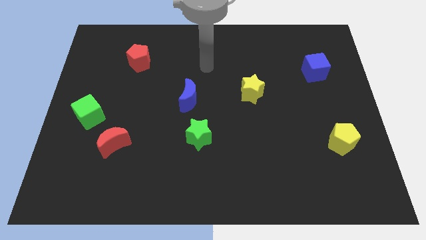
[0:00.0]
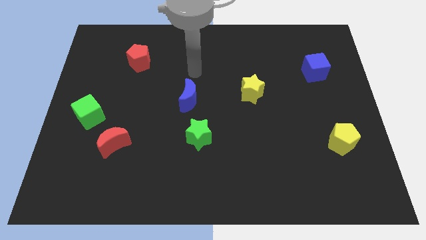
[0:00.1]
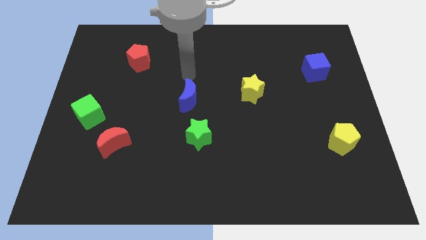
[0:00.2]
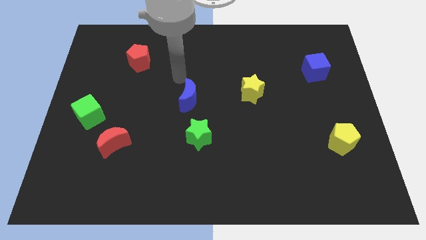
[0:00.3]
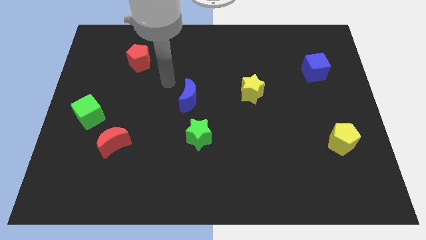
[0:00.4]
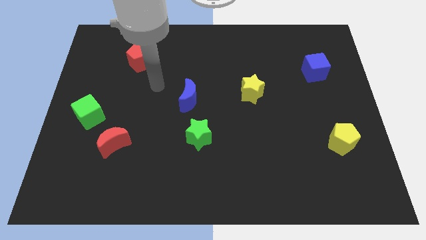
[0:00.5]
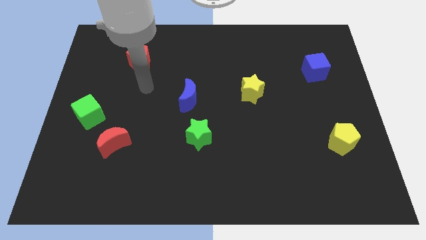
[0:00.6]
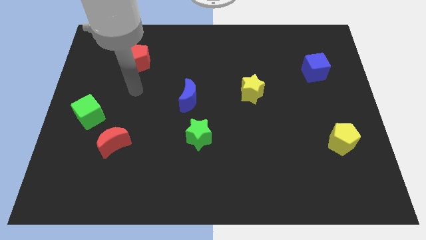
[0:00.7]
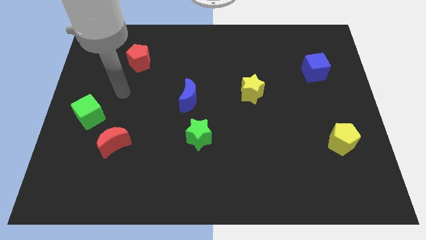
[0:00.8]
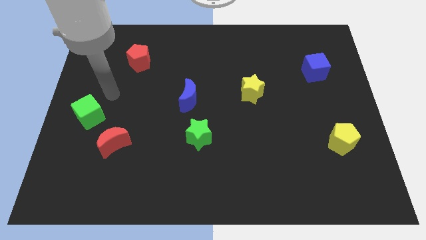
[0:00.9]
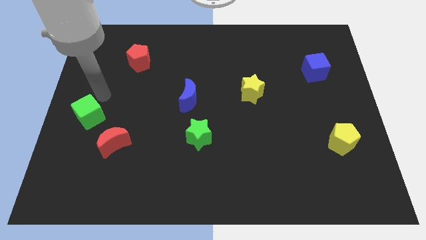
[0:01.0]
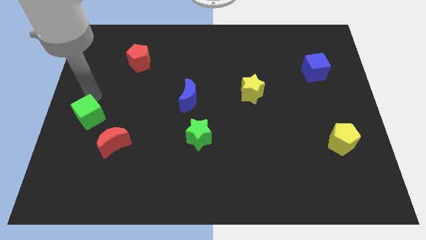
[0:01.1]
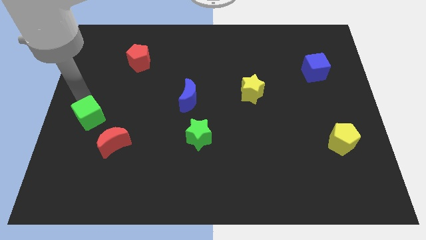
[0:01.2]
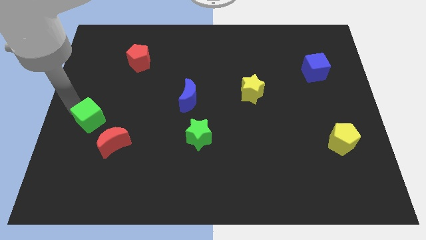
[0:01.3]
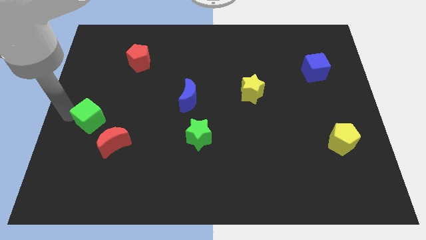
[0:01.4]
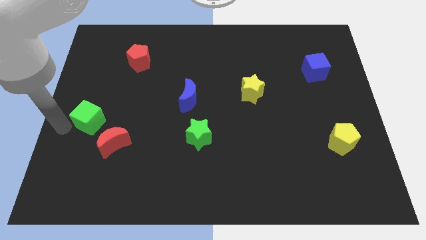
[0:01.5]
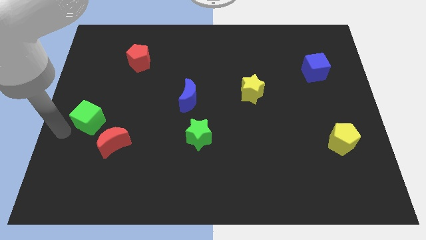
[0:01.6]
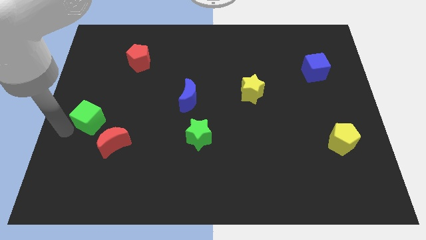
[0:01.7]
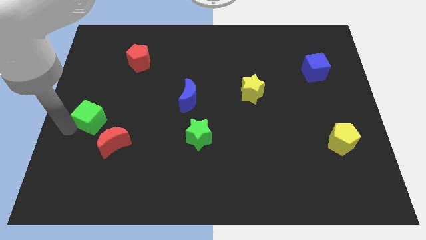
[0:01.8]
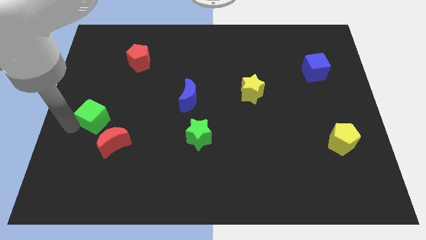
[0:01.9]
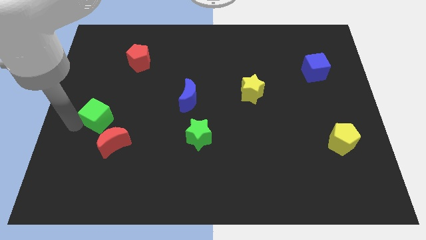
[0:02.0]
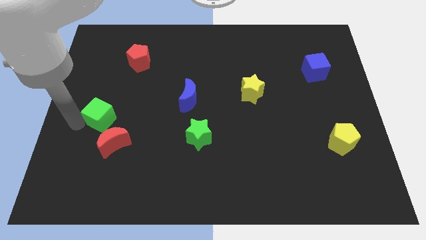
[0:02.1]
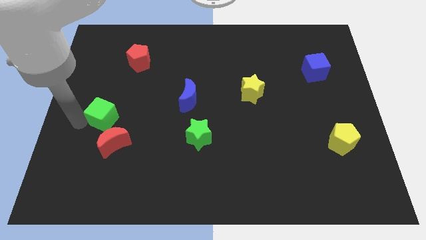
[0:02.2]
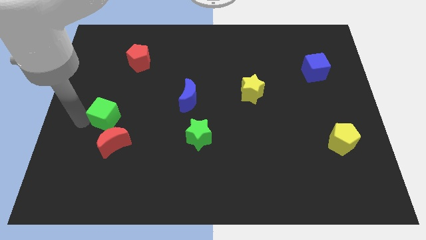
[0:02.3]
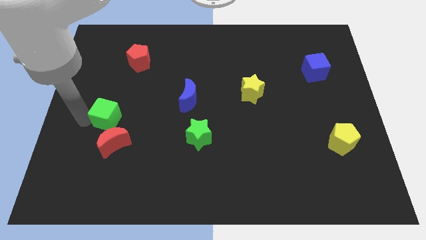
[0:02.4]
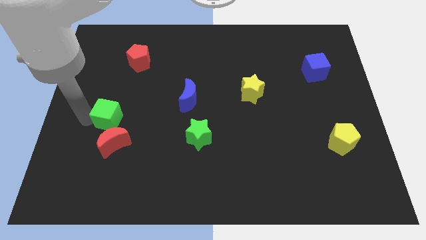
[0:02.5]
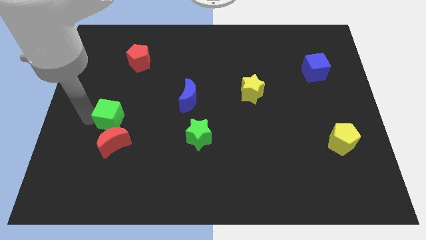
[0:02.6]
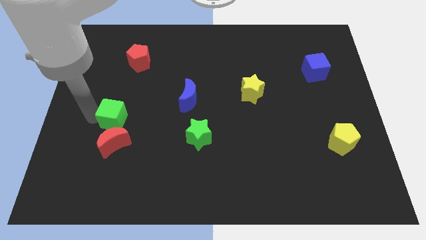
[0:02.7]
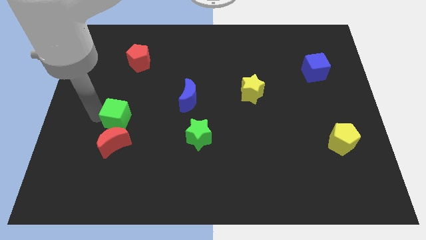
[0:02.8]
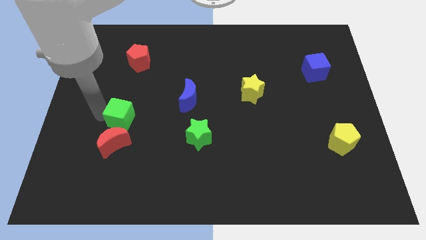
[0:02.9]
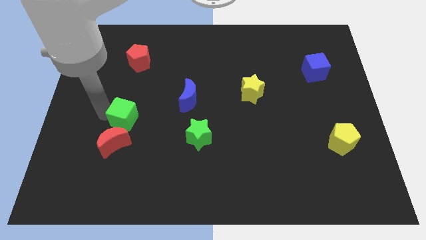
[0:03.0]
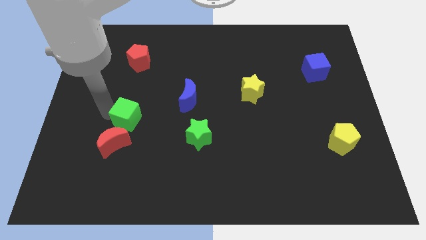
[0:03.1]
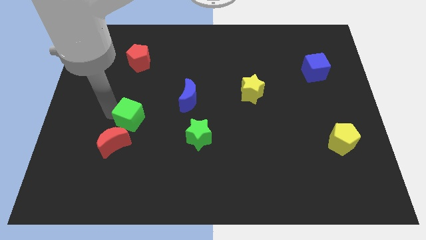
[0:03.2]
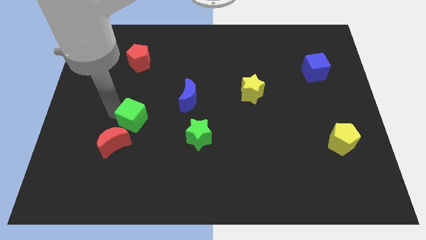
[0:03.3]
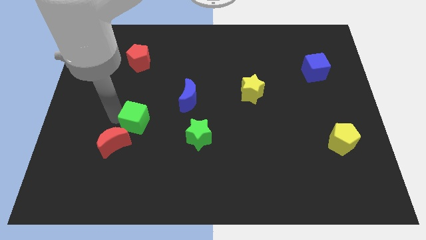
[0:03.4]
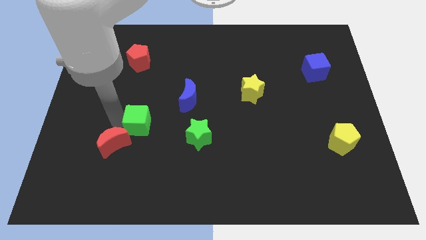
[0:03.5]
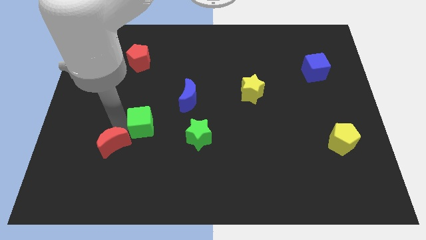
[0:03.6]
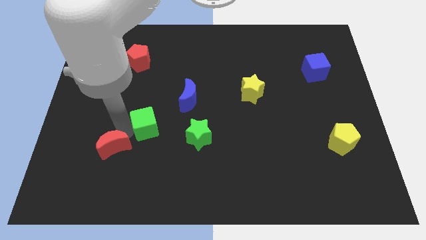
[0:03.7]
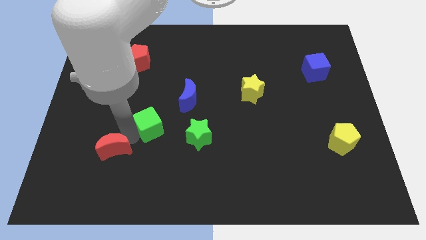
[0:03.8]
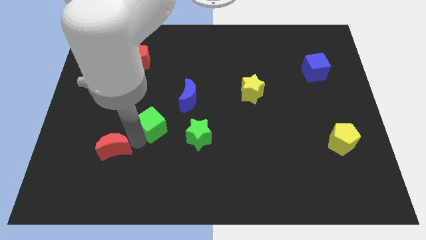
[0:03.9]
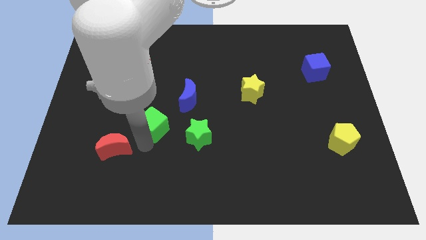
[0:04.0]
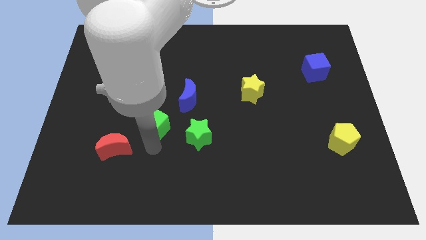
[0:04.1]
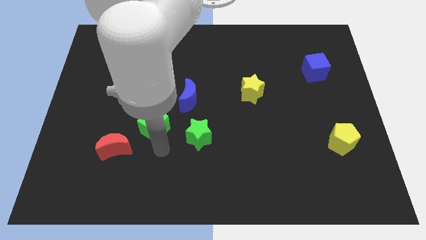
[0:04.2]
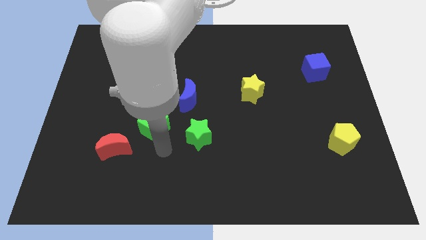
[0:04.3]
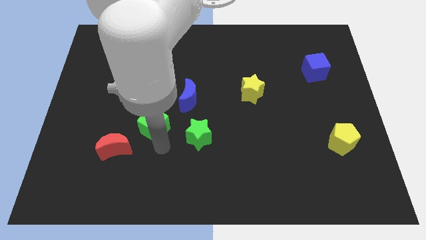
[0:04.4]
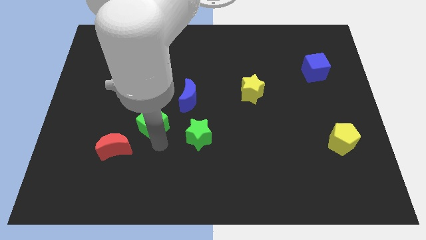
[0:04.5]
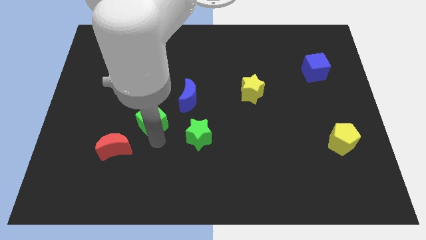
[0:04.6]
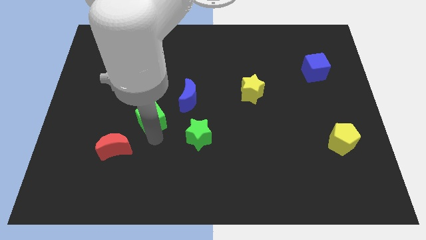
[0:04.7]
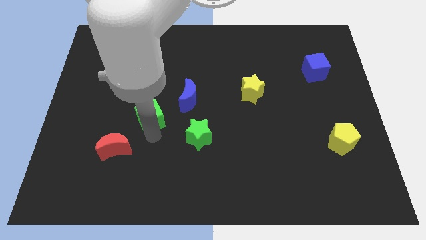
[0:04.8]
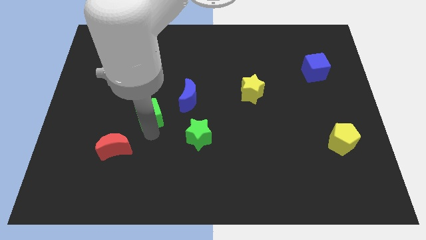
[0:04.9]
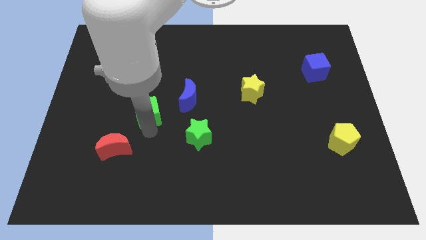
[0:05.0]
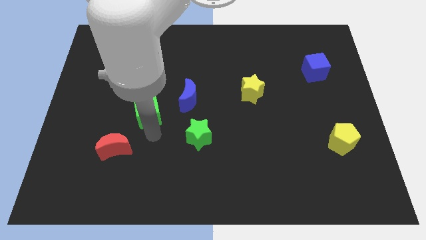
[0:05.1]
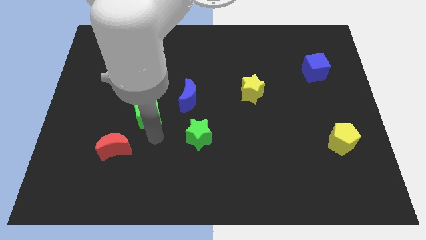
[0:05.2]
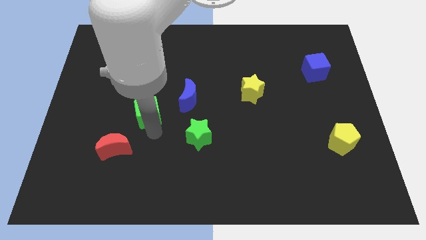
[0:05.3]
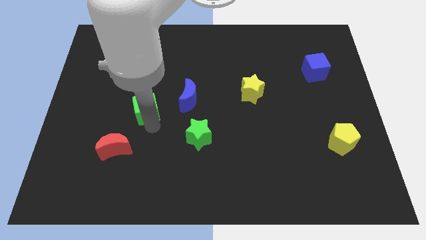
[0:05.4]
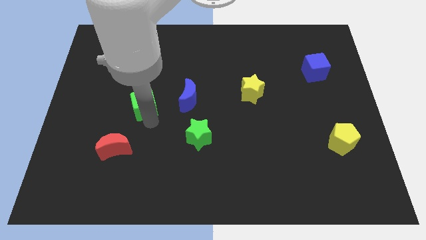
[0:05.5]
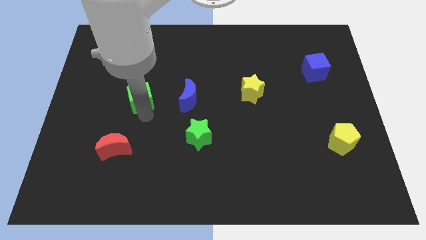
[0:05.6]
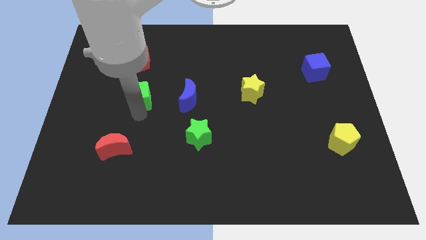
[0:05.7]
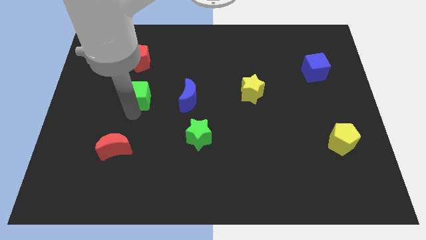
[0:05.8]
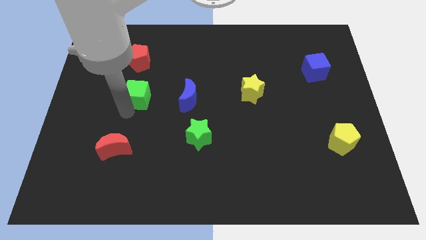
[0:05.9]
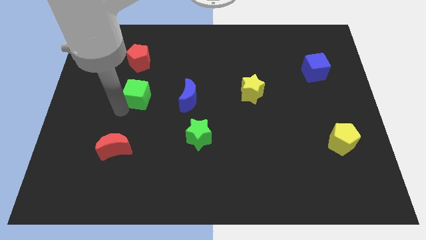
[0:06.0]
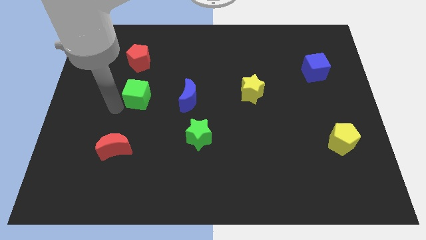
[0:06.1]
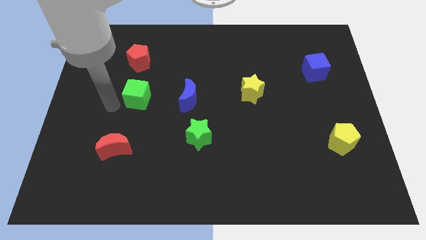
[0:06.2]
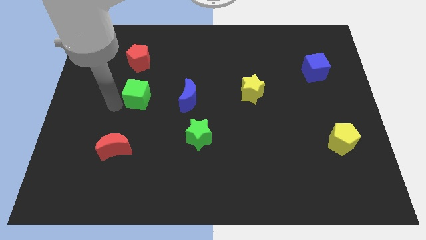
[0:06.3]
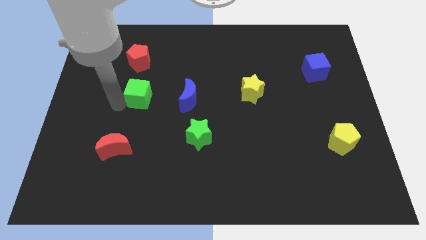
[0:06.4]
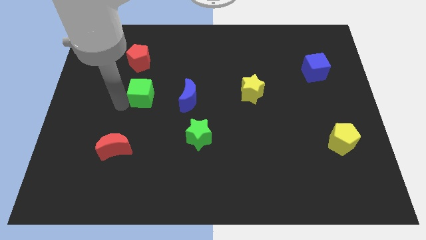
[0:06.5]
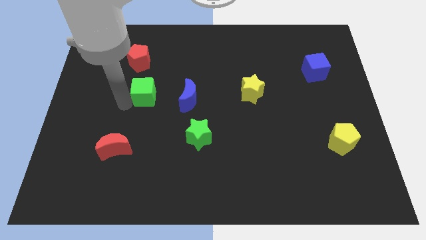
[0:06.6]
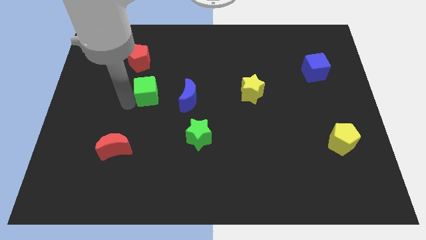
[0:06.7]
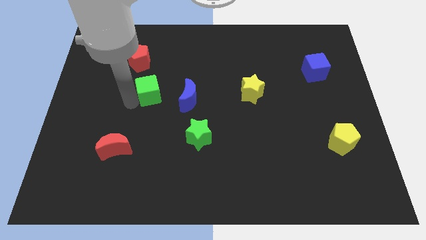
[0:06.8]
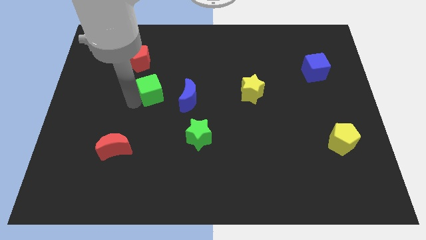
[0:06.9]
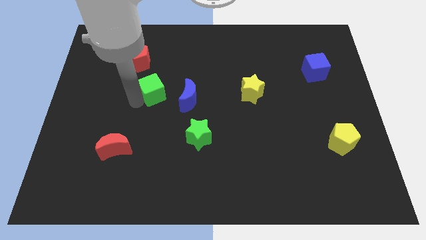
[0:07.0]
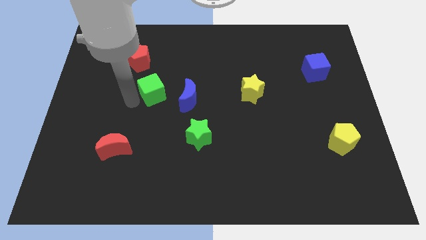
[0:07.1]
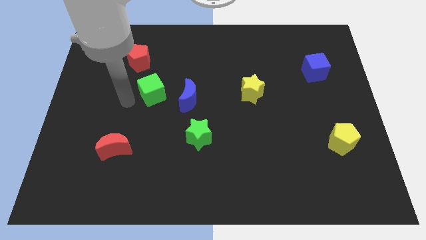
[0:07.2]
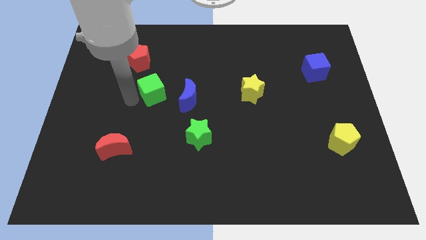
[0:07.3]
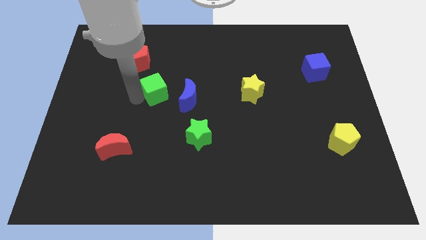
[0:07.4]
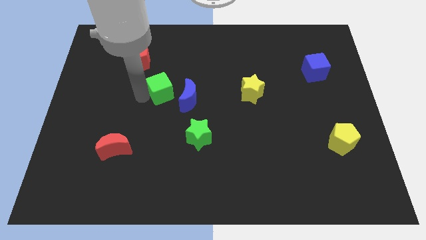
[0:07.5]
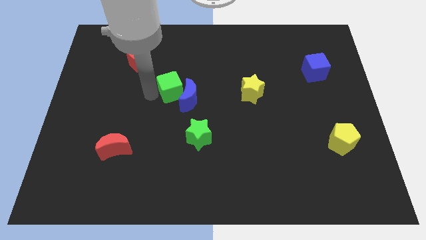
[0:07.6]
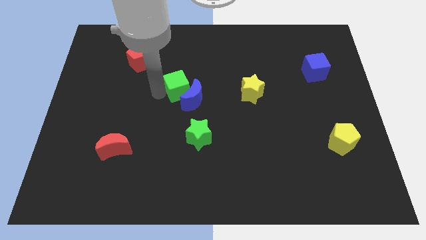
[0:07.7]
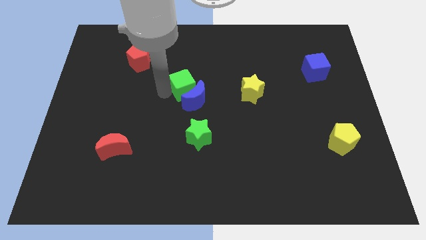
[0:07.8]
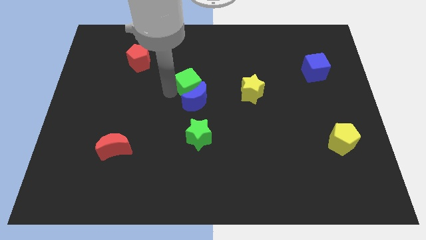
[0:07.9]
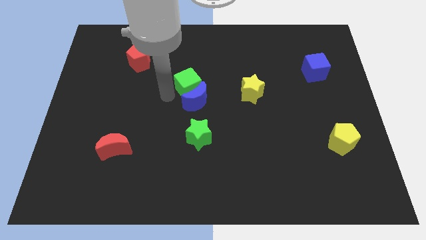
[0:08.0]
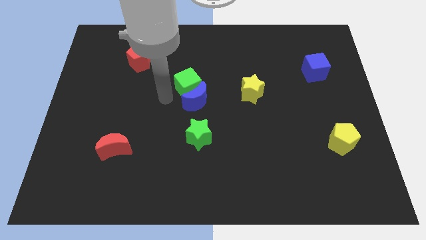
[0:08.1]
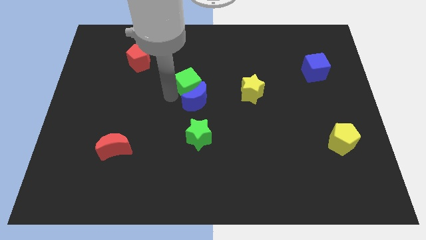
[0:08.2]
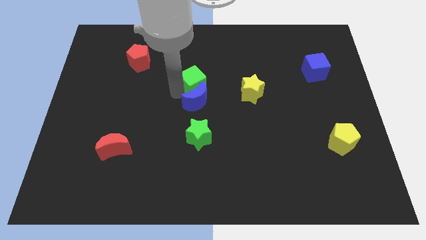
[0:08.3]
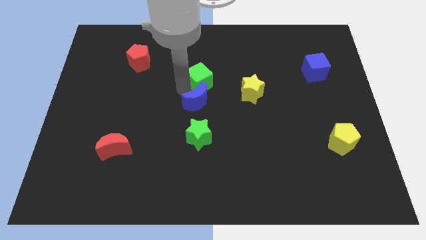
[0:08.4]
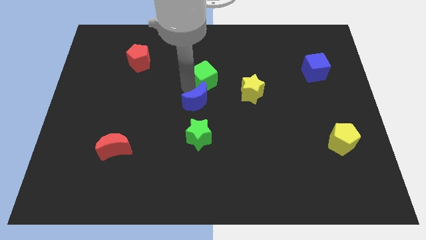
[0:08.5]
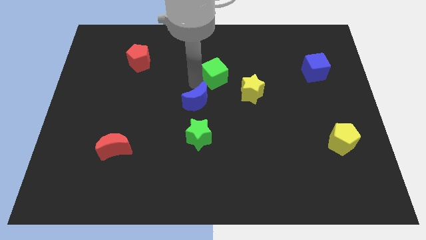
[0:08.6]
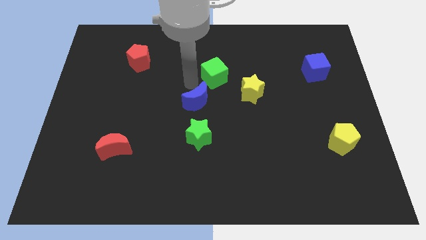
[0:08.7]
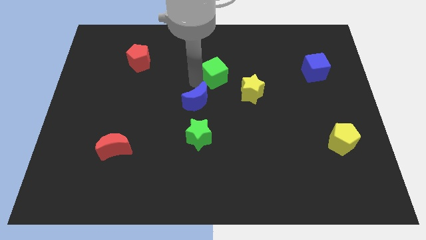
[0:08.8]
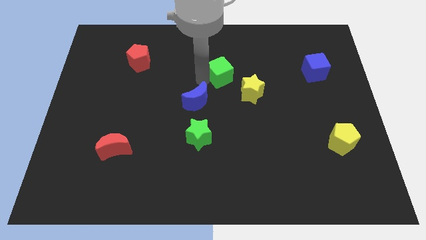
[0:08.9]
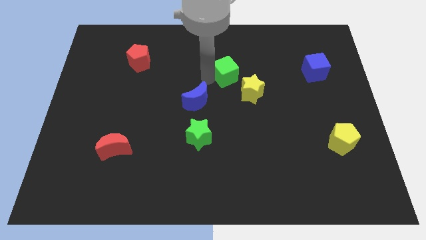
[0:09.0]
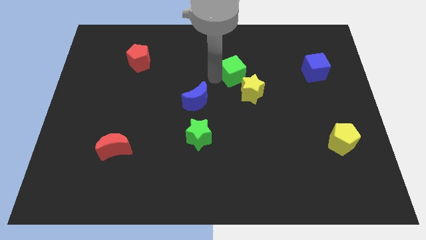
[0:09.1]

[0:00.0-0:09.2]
move the green cube to the top side of the yellow star
